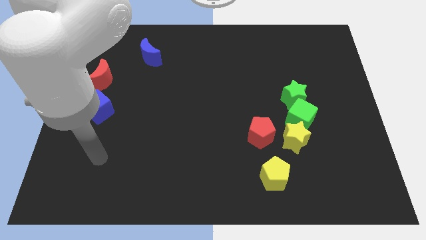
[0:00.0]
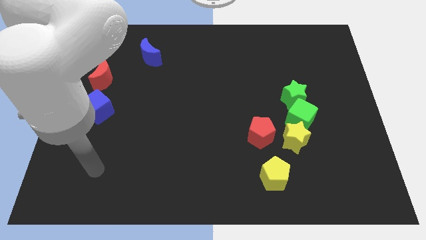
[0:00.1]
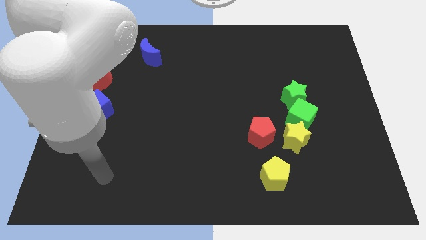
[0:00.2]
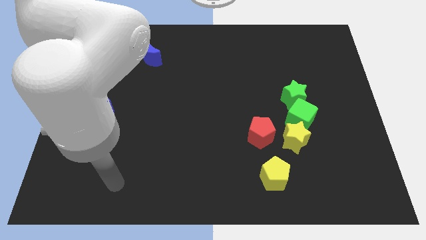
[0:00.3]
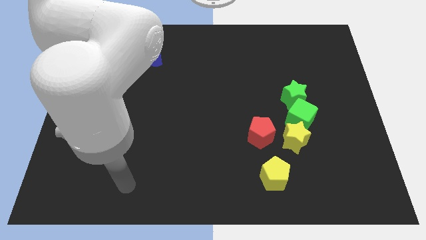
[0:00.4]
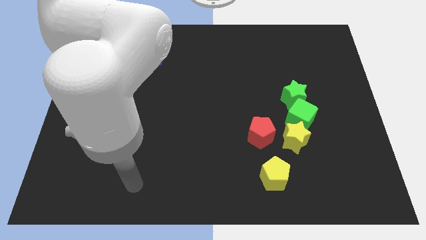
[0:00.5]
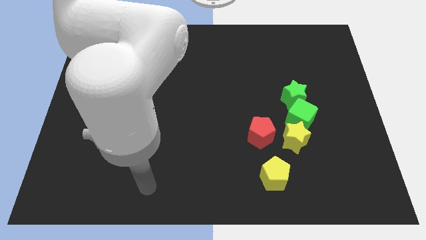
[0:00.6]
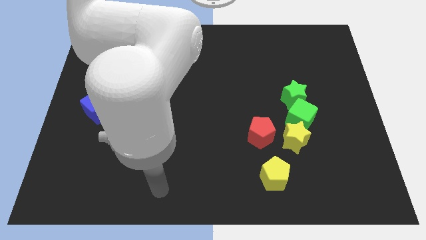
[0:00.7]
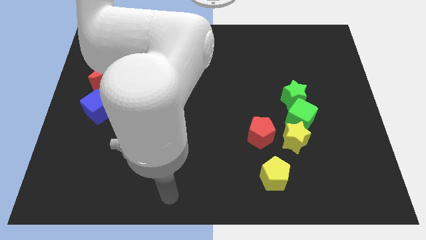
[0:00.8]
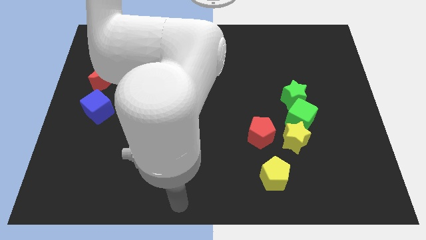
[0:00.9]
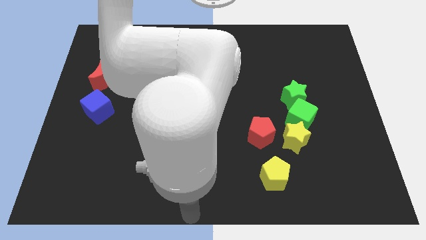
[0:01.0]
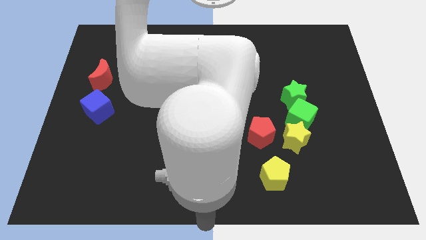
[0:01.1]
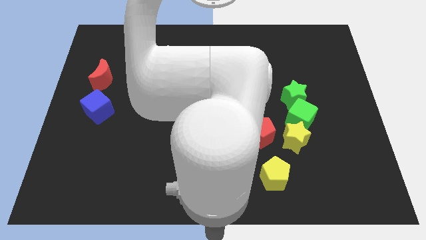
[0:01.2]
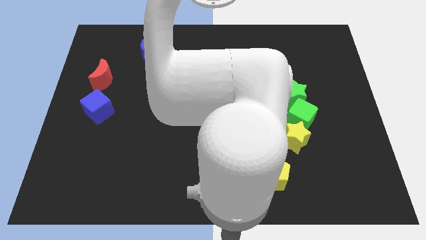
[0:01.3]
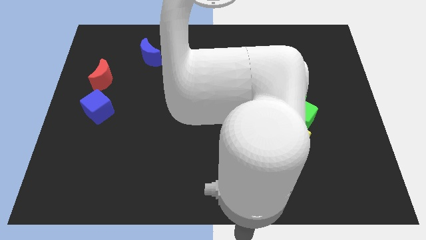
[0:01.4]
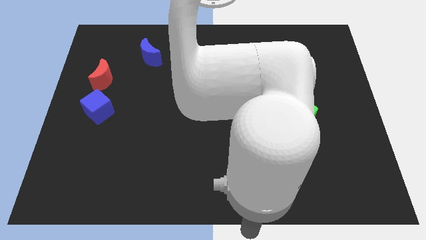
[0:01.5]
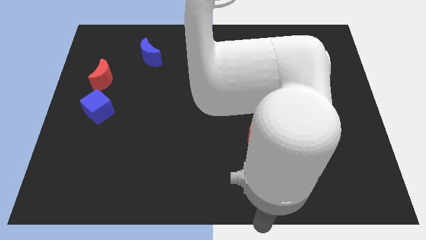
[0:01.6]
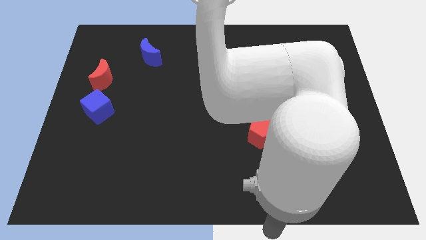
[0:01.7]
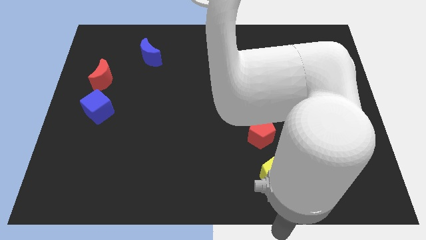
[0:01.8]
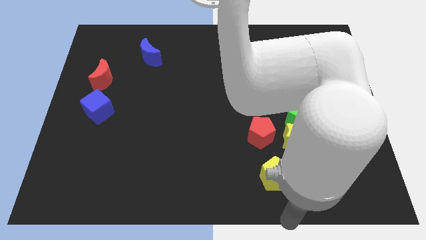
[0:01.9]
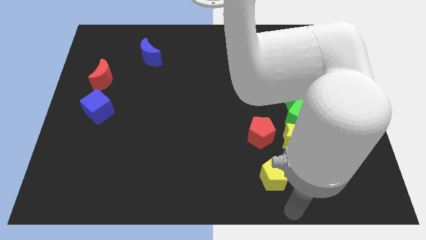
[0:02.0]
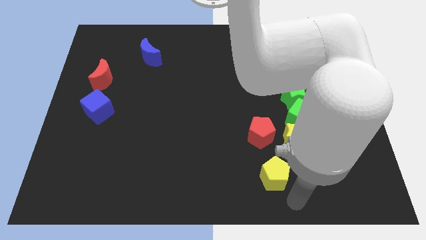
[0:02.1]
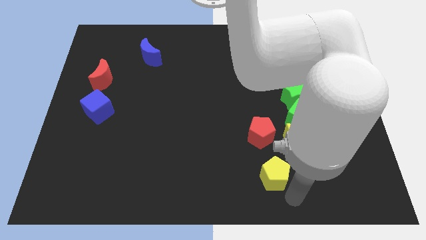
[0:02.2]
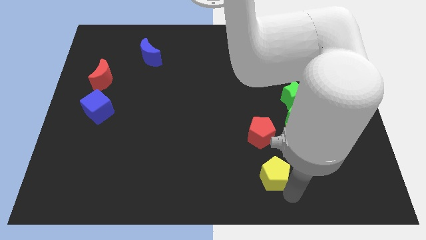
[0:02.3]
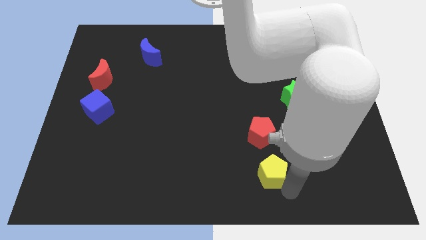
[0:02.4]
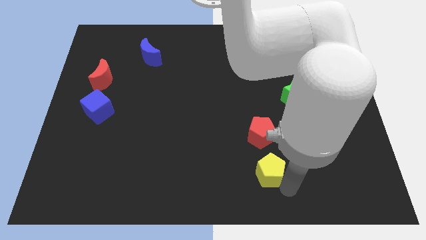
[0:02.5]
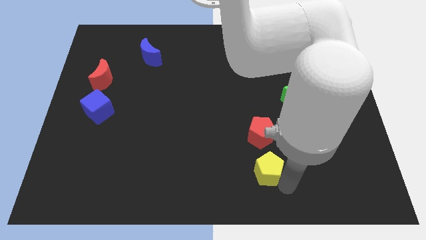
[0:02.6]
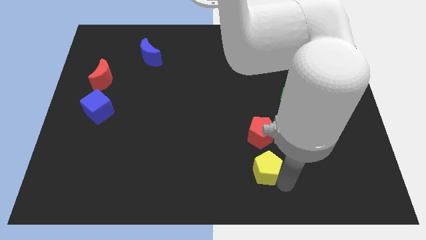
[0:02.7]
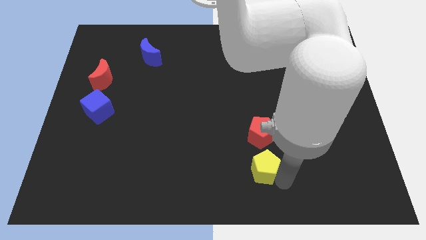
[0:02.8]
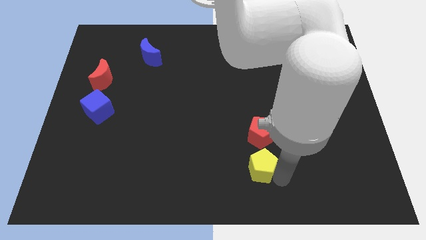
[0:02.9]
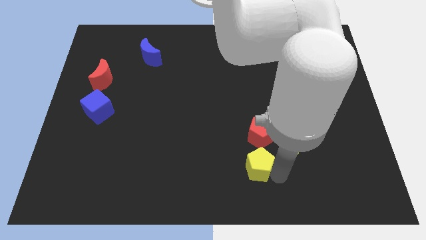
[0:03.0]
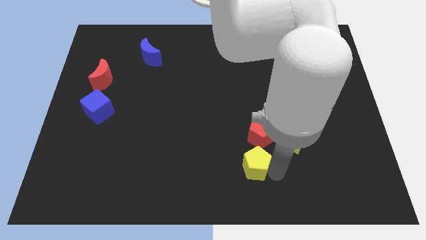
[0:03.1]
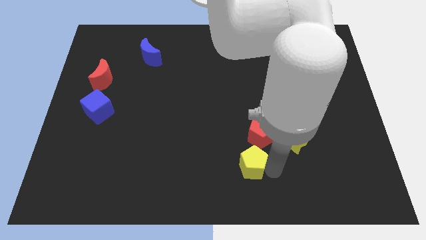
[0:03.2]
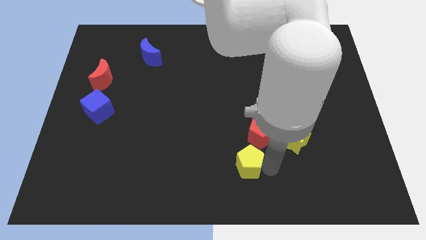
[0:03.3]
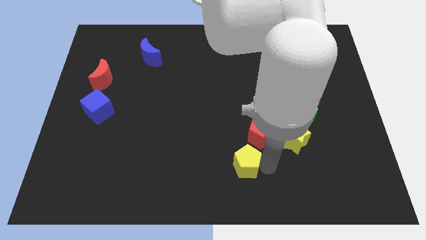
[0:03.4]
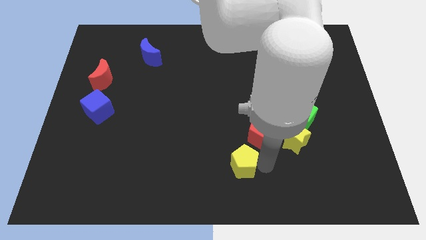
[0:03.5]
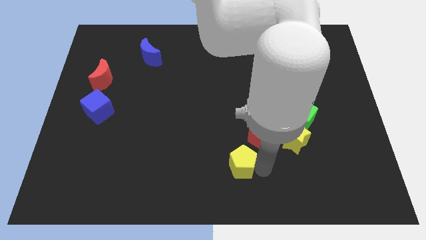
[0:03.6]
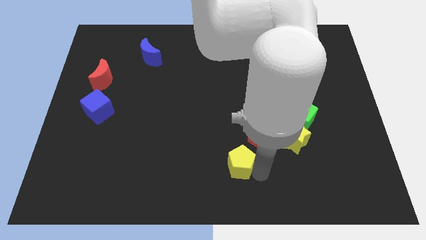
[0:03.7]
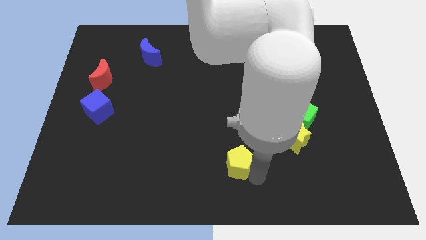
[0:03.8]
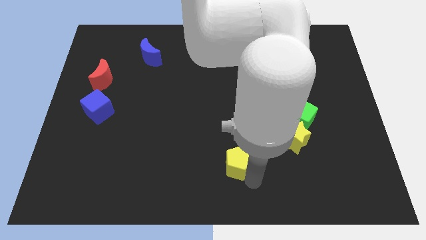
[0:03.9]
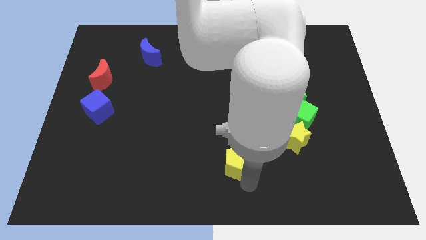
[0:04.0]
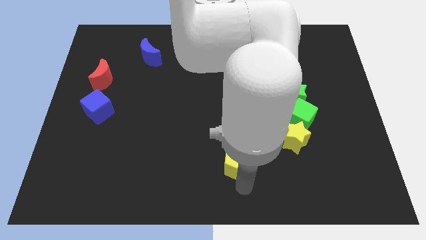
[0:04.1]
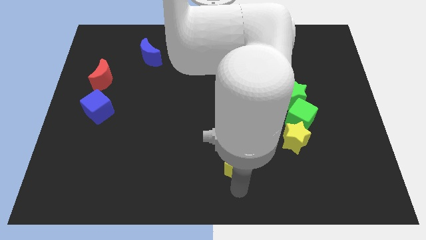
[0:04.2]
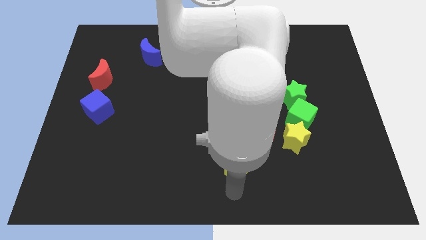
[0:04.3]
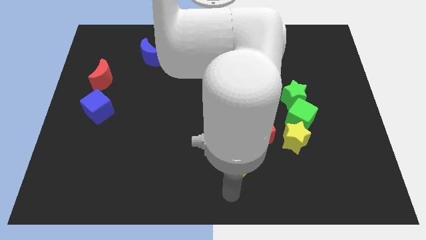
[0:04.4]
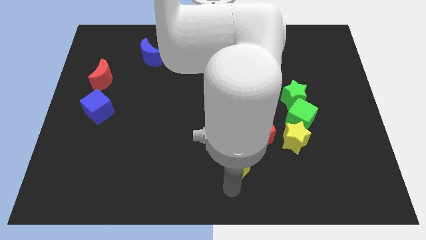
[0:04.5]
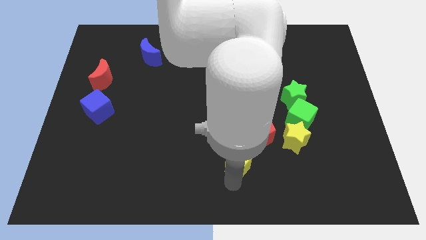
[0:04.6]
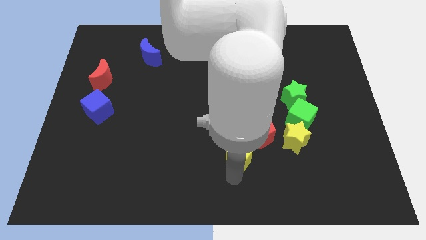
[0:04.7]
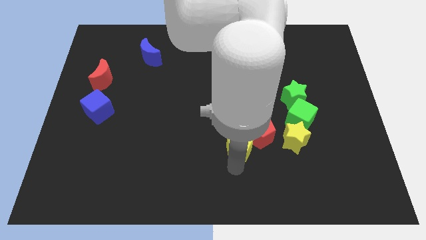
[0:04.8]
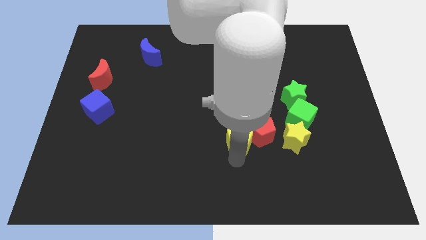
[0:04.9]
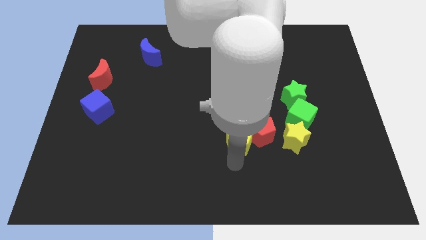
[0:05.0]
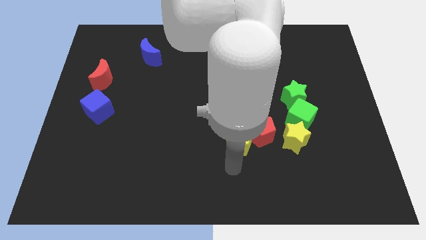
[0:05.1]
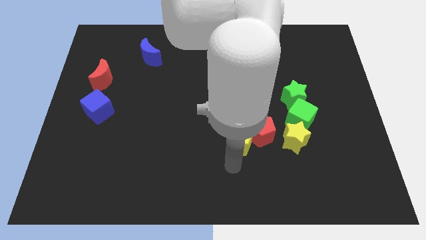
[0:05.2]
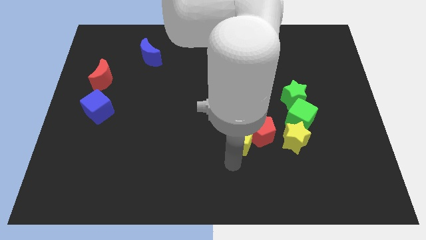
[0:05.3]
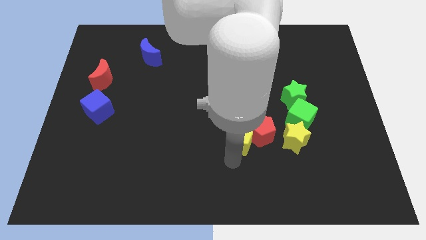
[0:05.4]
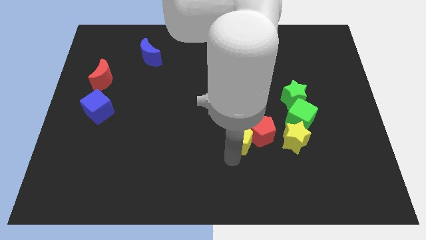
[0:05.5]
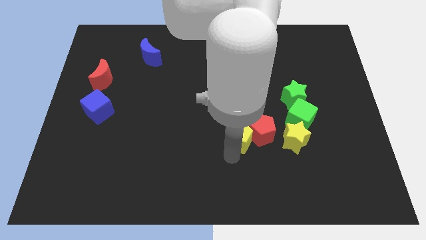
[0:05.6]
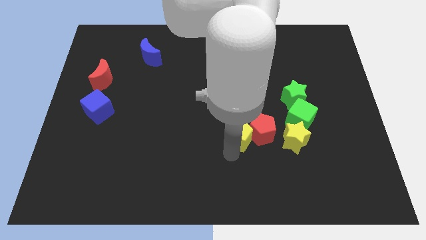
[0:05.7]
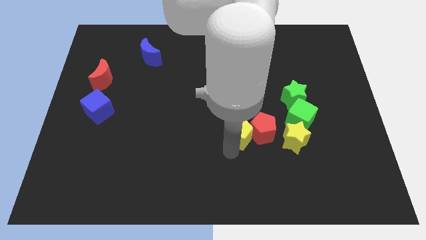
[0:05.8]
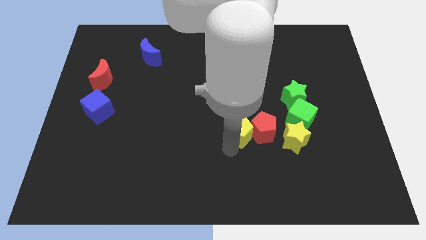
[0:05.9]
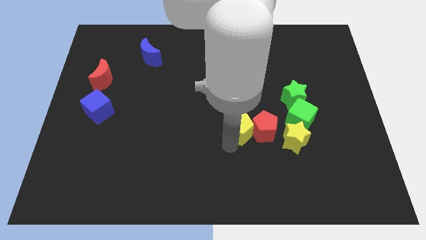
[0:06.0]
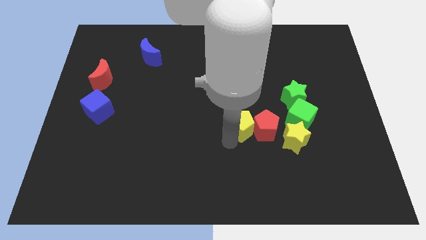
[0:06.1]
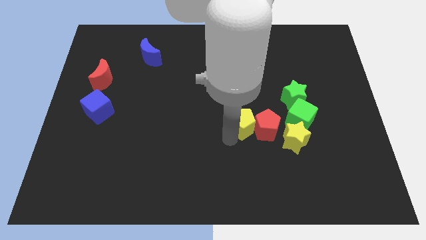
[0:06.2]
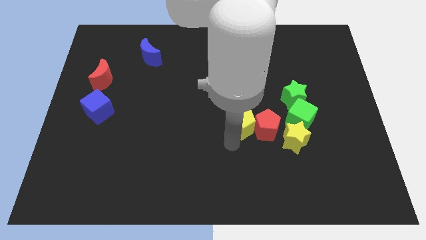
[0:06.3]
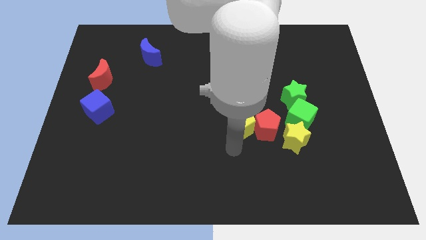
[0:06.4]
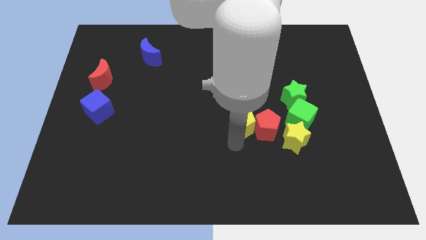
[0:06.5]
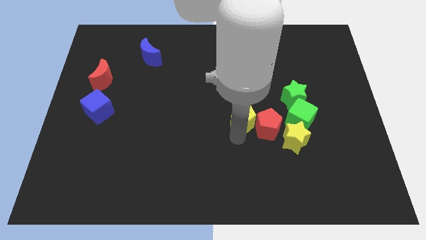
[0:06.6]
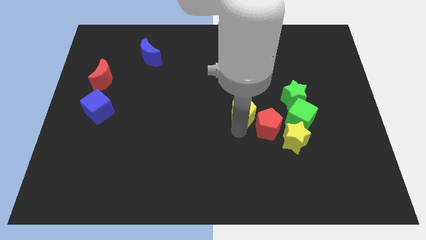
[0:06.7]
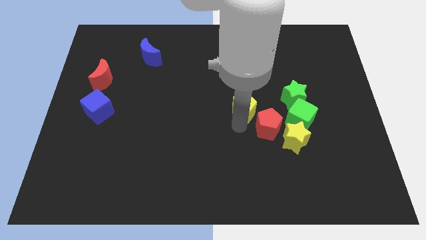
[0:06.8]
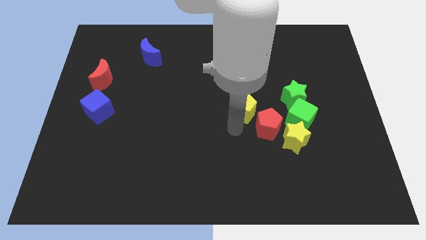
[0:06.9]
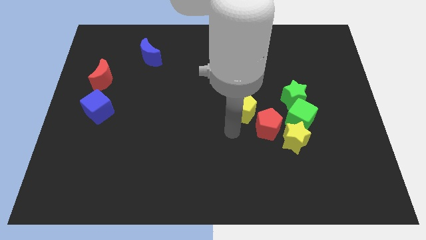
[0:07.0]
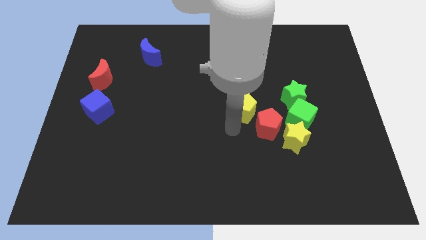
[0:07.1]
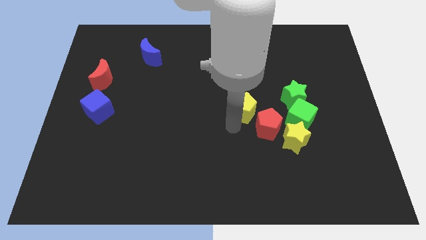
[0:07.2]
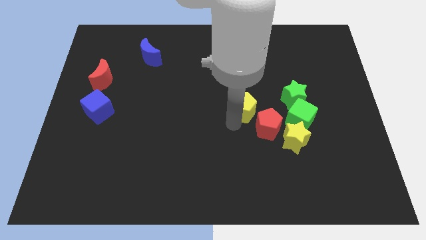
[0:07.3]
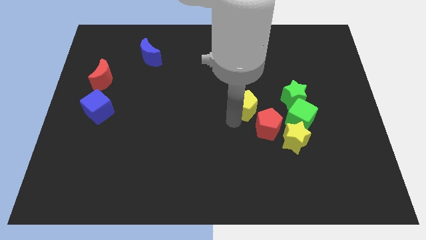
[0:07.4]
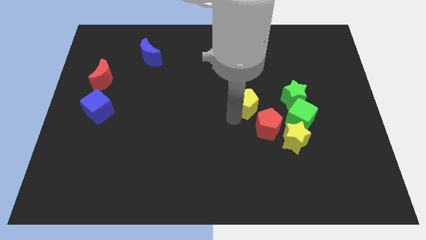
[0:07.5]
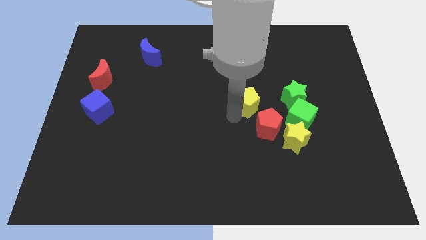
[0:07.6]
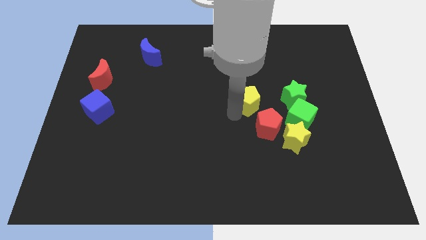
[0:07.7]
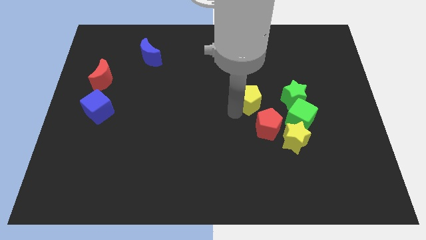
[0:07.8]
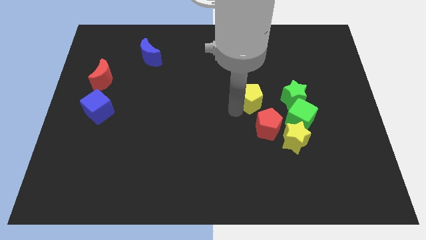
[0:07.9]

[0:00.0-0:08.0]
slide the yellow pentagon up

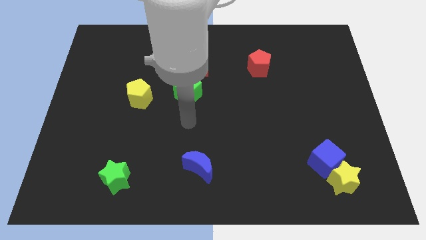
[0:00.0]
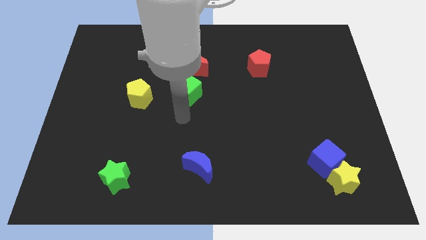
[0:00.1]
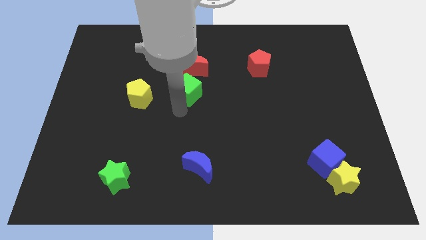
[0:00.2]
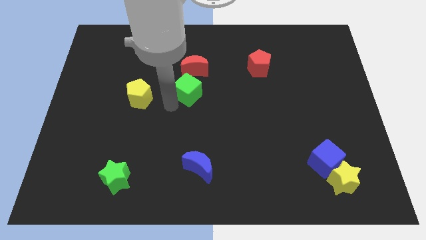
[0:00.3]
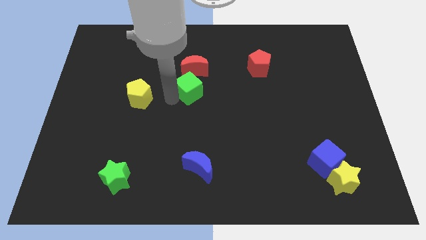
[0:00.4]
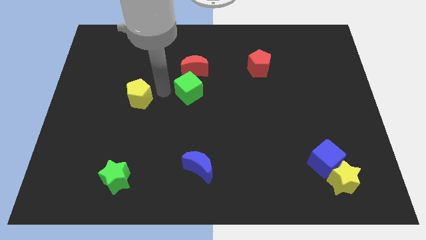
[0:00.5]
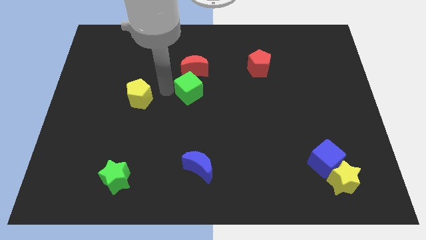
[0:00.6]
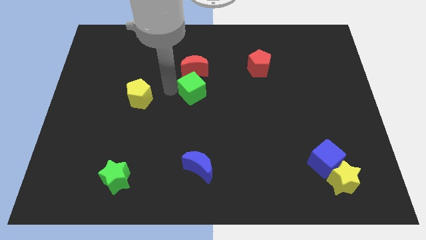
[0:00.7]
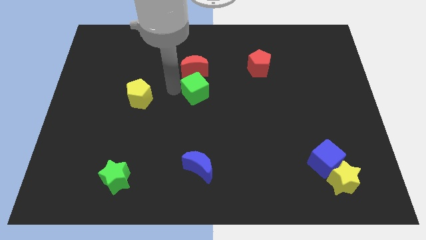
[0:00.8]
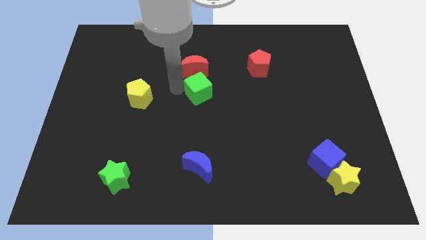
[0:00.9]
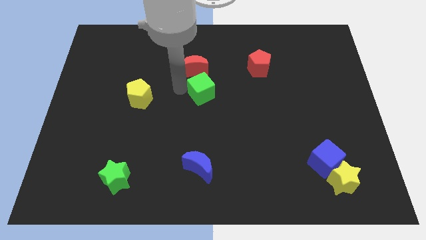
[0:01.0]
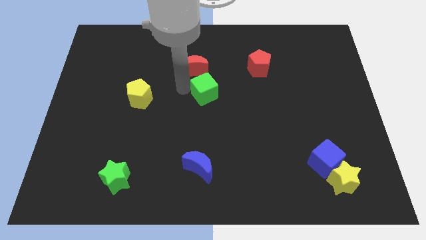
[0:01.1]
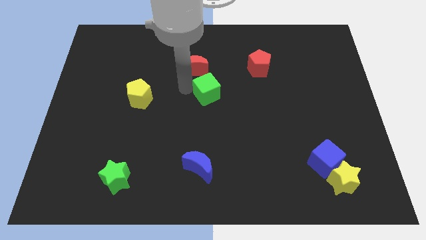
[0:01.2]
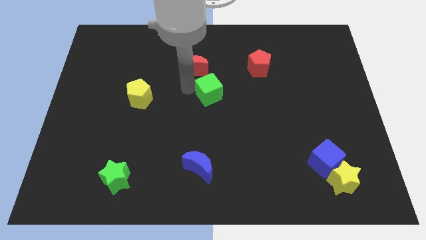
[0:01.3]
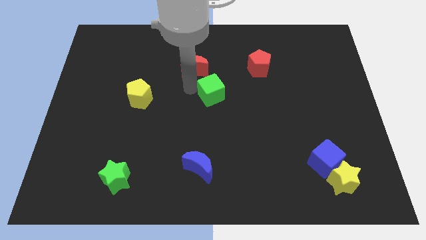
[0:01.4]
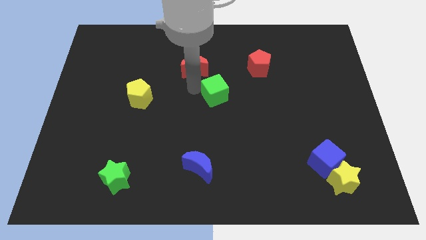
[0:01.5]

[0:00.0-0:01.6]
push the green cube somewhat right
